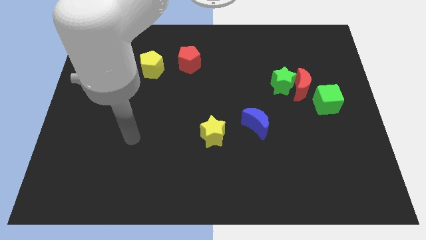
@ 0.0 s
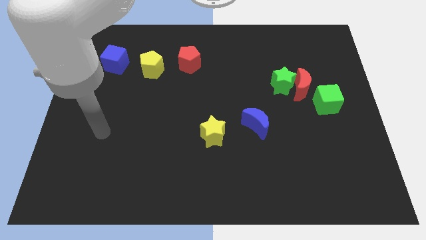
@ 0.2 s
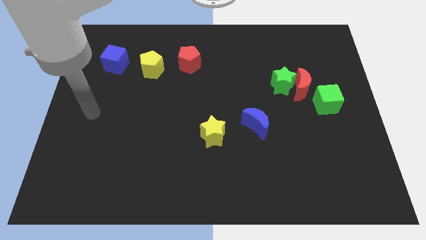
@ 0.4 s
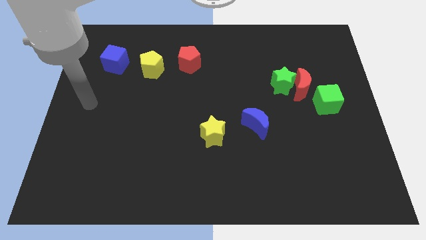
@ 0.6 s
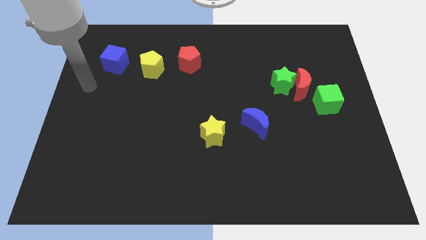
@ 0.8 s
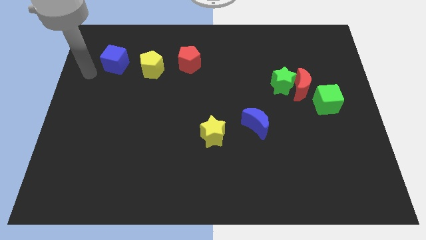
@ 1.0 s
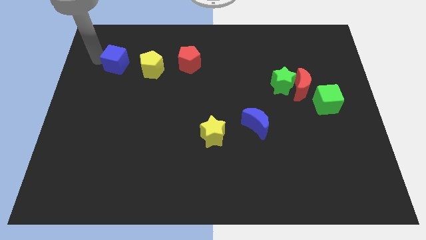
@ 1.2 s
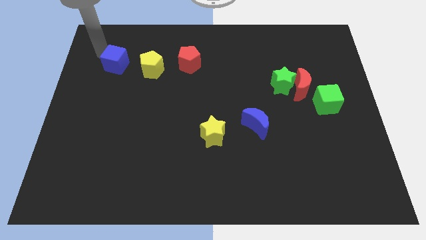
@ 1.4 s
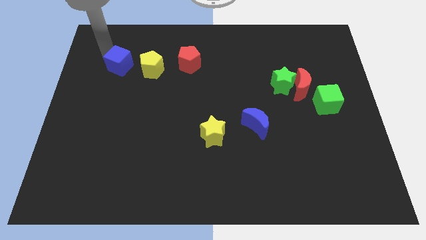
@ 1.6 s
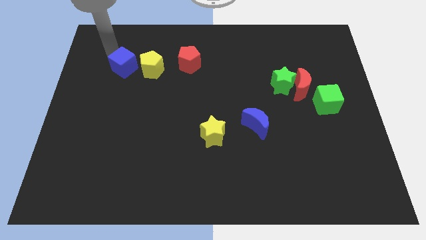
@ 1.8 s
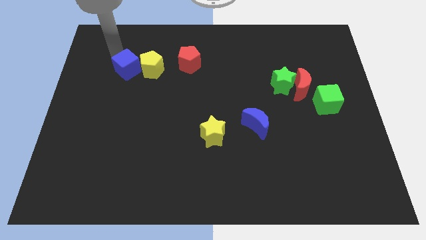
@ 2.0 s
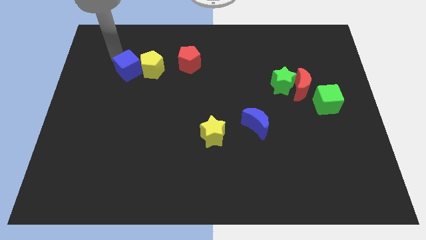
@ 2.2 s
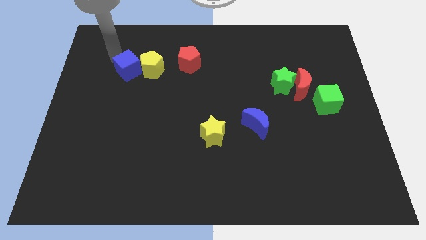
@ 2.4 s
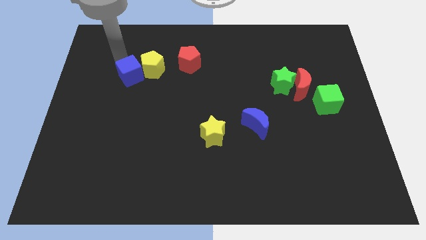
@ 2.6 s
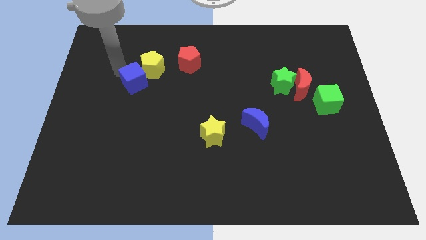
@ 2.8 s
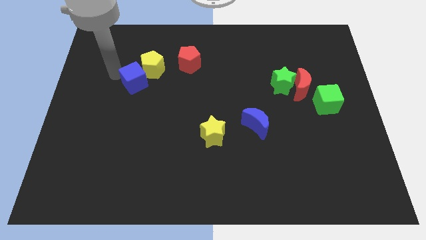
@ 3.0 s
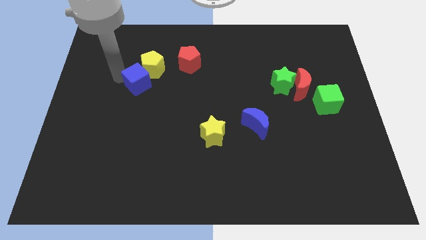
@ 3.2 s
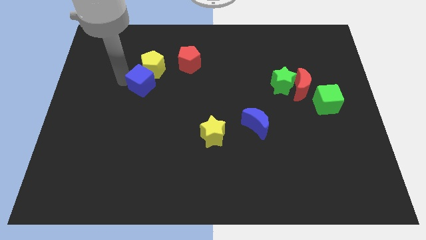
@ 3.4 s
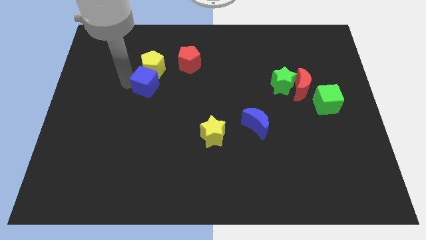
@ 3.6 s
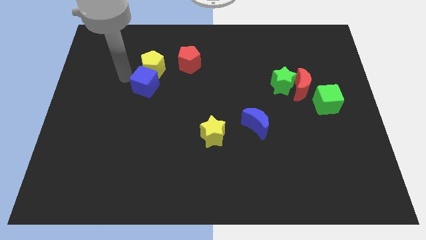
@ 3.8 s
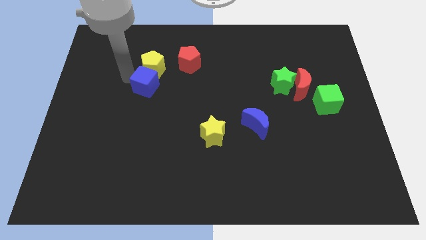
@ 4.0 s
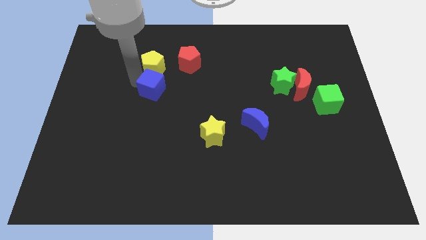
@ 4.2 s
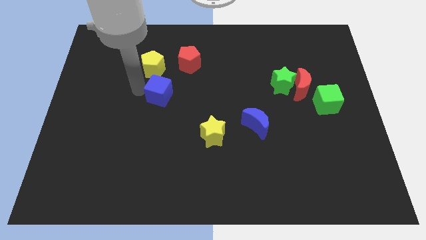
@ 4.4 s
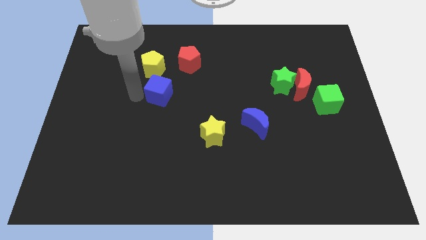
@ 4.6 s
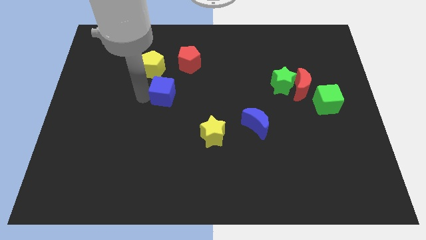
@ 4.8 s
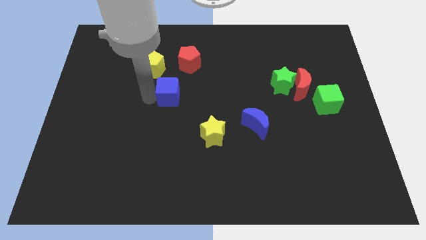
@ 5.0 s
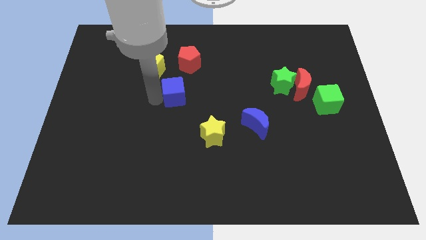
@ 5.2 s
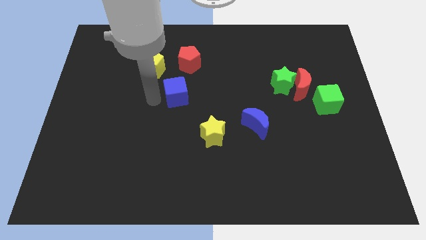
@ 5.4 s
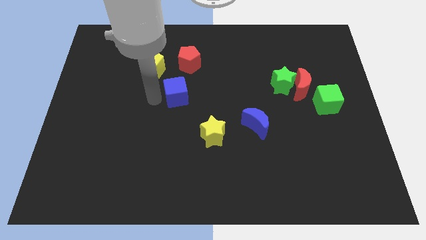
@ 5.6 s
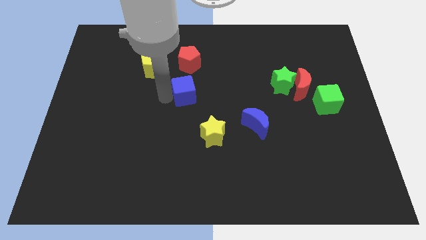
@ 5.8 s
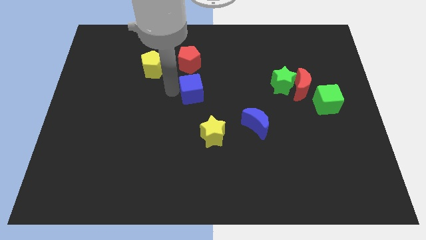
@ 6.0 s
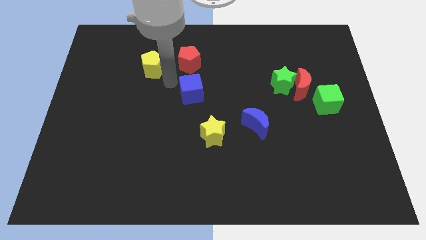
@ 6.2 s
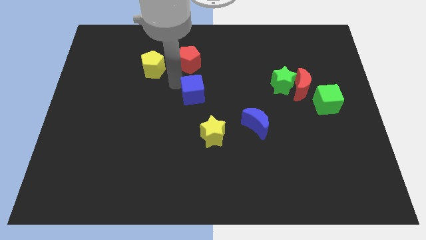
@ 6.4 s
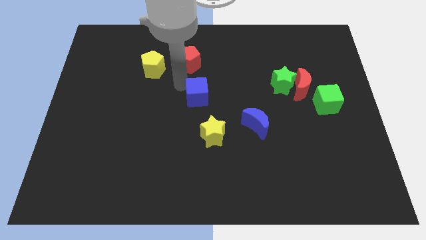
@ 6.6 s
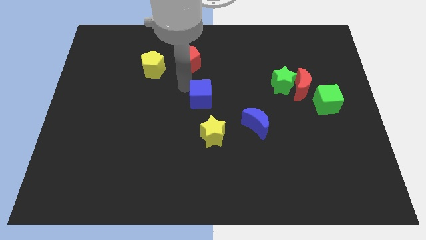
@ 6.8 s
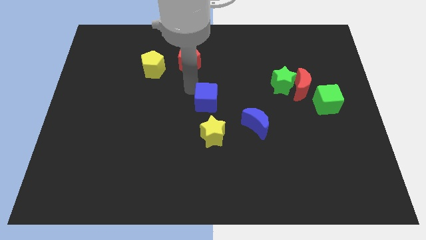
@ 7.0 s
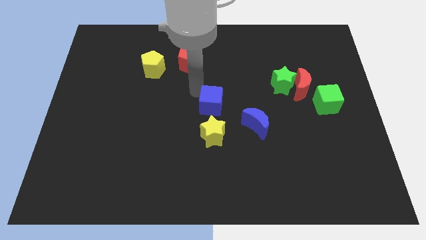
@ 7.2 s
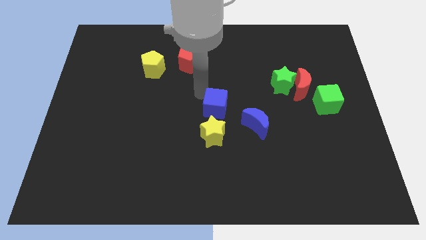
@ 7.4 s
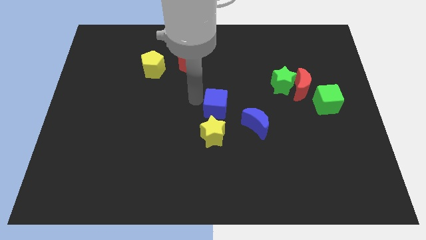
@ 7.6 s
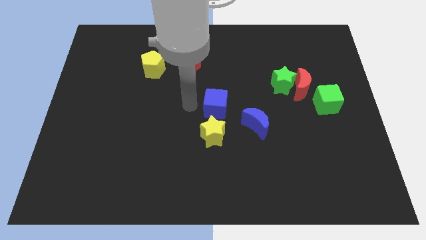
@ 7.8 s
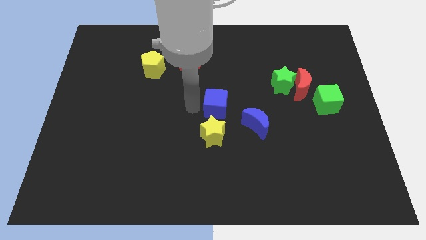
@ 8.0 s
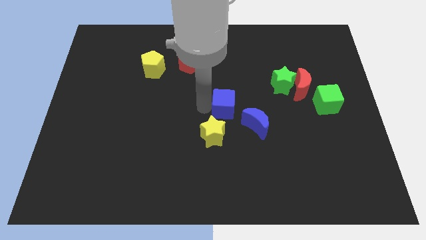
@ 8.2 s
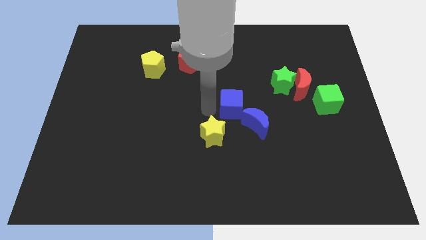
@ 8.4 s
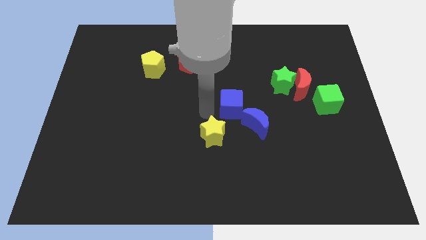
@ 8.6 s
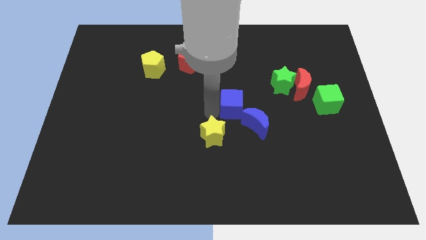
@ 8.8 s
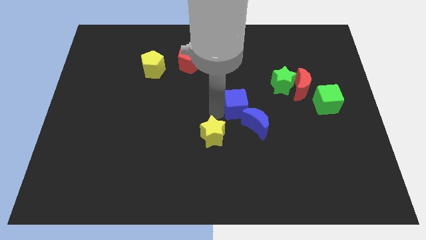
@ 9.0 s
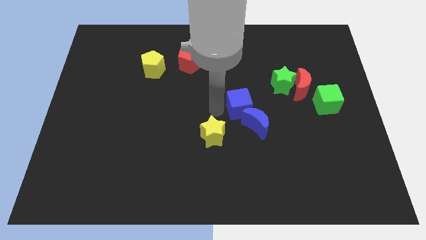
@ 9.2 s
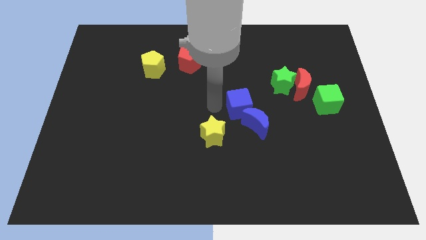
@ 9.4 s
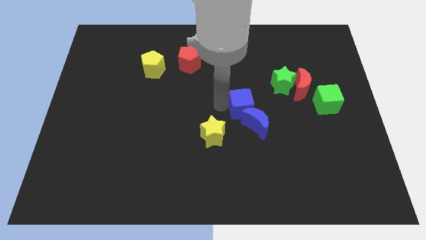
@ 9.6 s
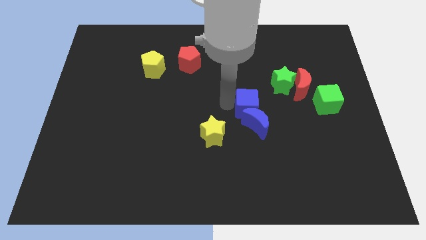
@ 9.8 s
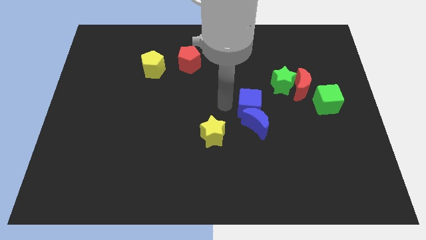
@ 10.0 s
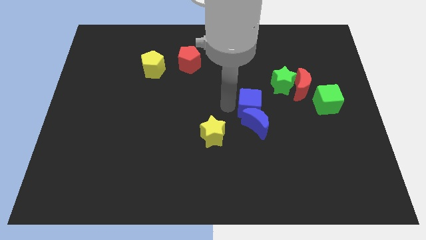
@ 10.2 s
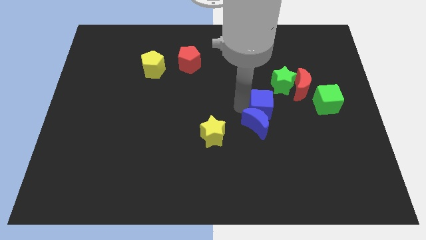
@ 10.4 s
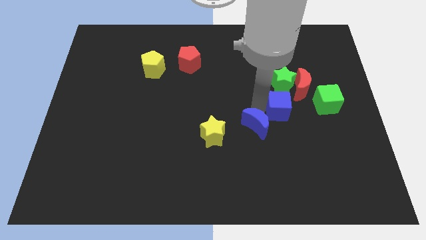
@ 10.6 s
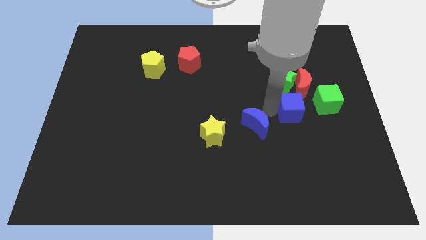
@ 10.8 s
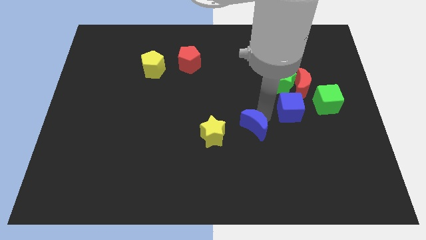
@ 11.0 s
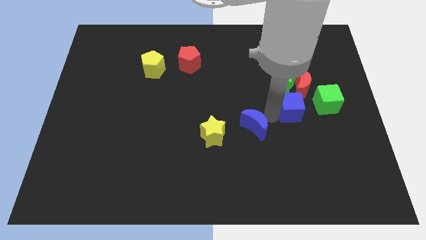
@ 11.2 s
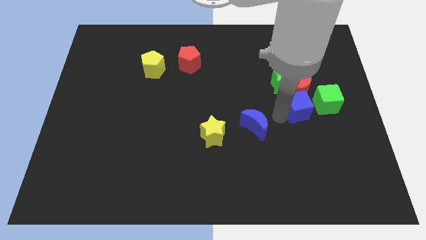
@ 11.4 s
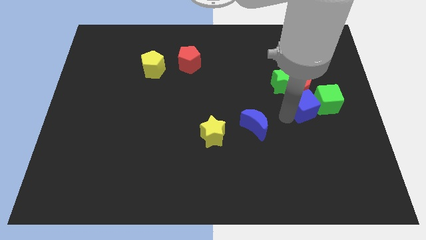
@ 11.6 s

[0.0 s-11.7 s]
slide the blue cube to the green cube
